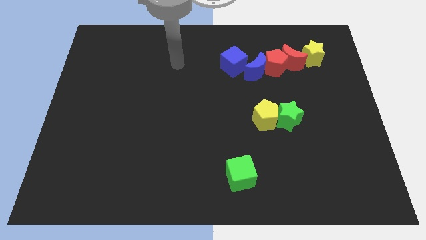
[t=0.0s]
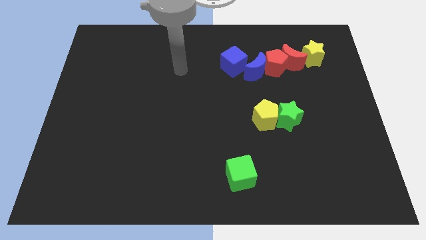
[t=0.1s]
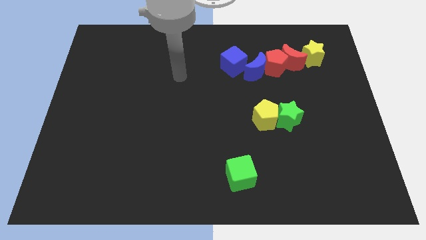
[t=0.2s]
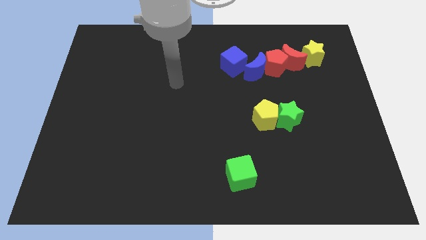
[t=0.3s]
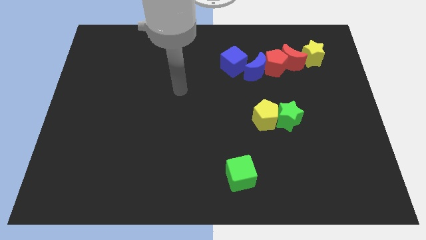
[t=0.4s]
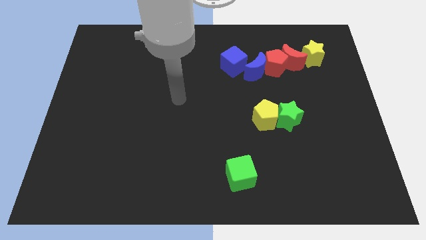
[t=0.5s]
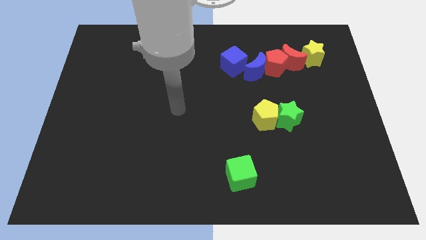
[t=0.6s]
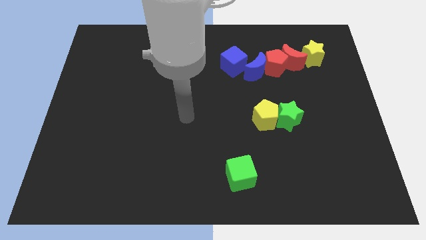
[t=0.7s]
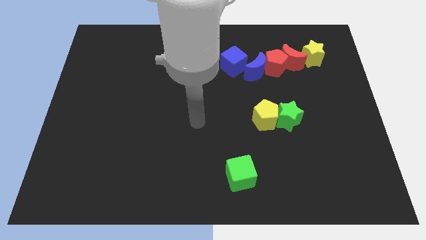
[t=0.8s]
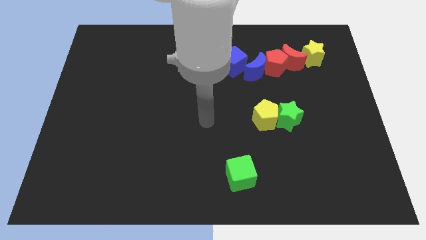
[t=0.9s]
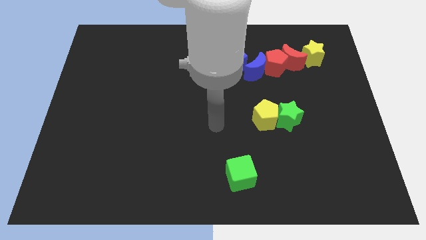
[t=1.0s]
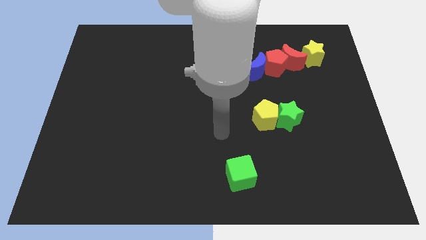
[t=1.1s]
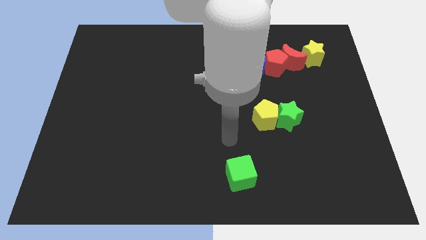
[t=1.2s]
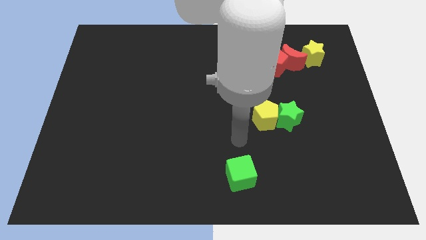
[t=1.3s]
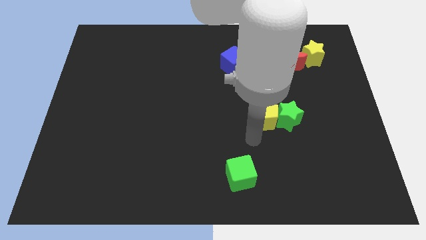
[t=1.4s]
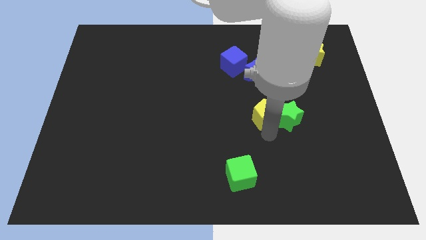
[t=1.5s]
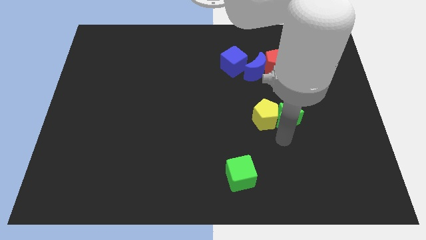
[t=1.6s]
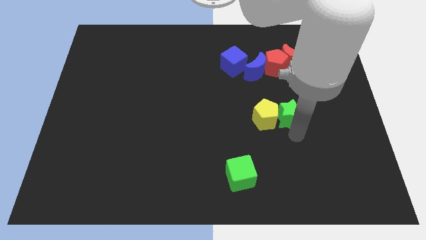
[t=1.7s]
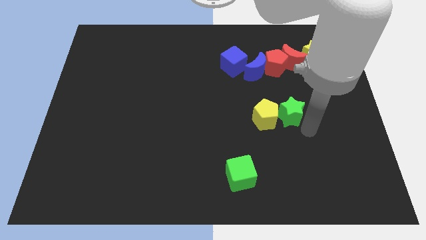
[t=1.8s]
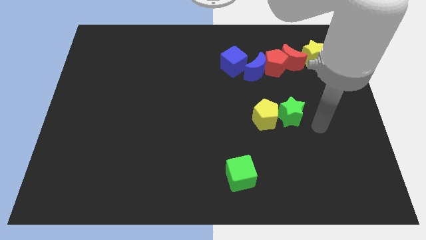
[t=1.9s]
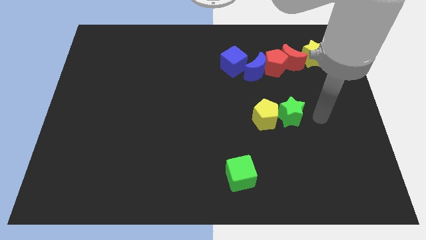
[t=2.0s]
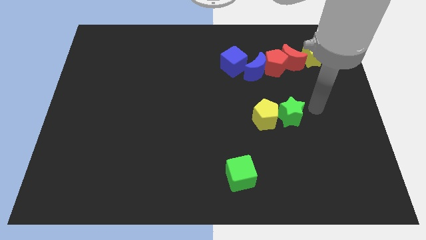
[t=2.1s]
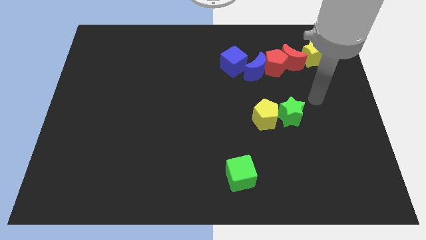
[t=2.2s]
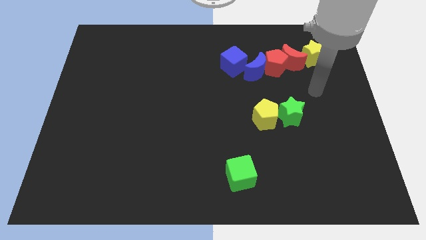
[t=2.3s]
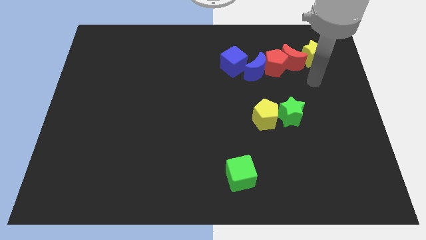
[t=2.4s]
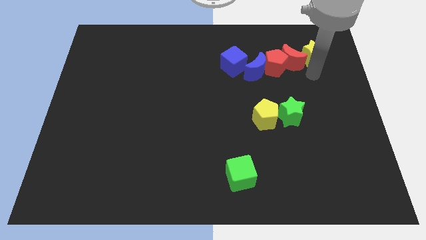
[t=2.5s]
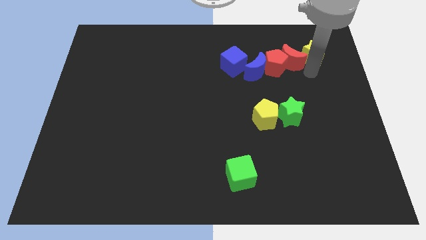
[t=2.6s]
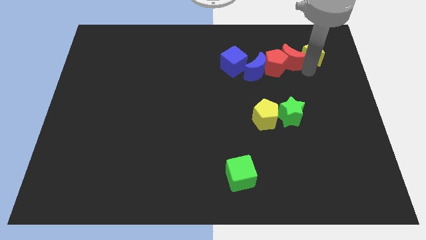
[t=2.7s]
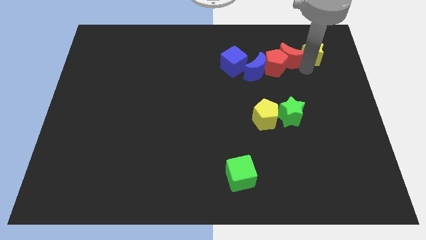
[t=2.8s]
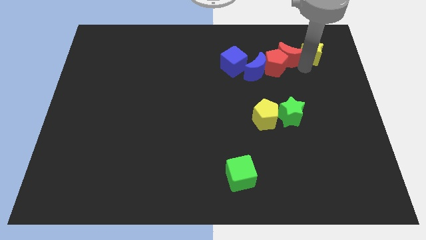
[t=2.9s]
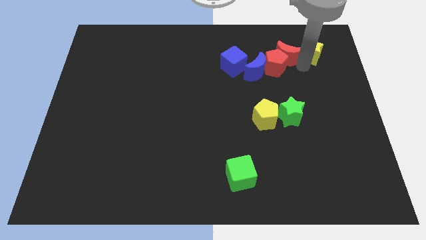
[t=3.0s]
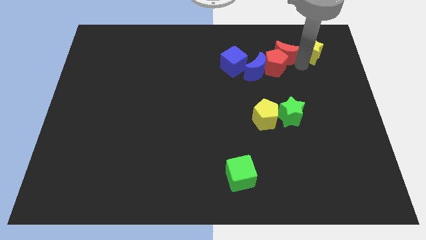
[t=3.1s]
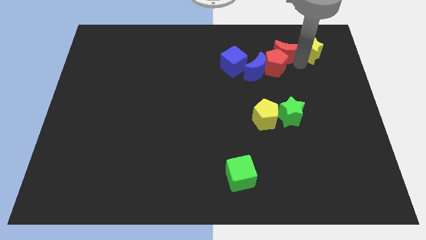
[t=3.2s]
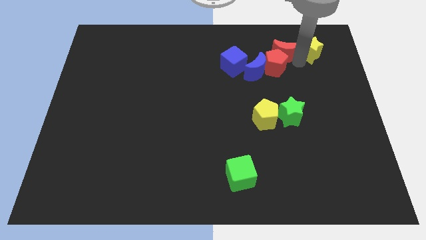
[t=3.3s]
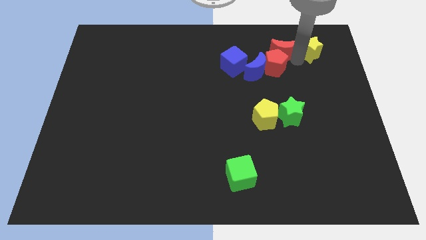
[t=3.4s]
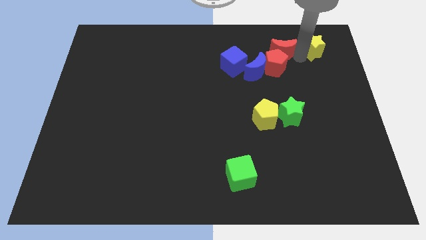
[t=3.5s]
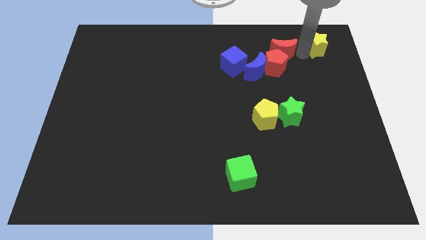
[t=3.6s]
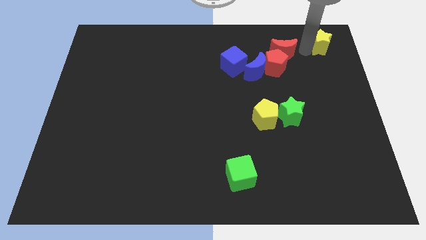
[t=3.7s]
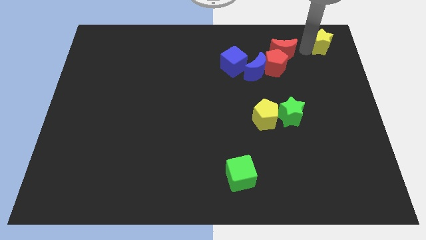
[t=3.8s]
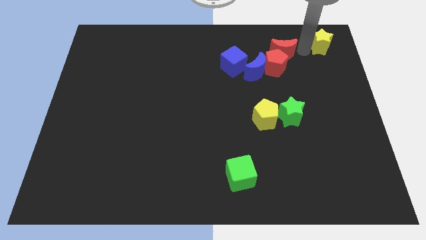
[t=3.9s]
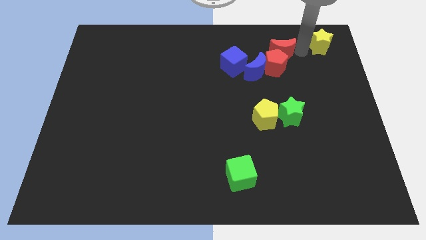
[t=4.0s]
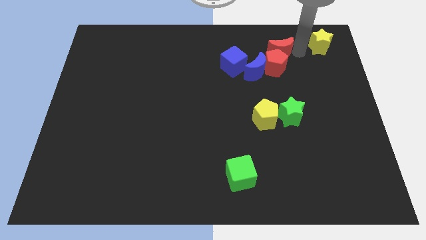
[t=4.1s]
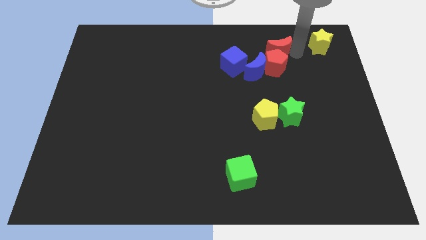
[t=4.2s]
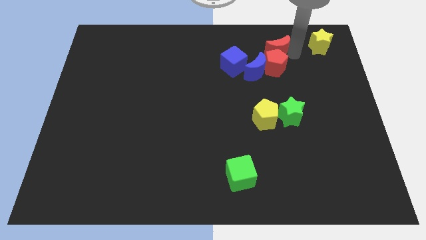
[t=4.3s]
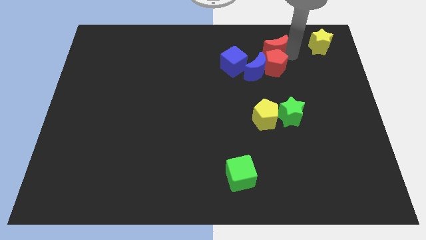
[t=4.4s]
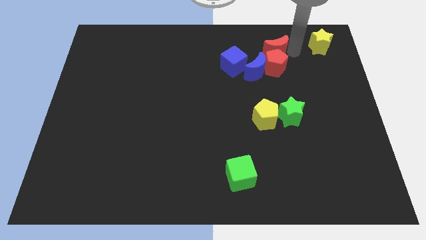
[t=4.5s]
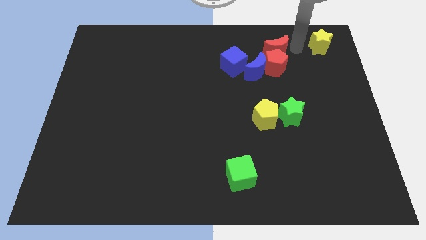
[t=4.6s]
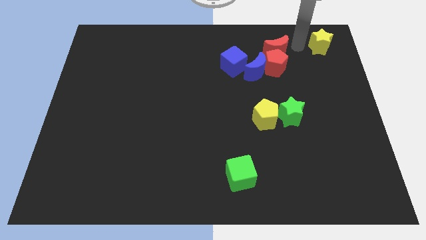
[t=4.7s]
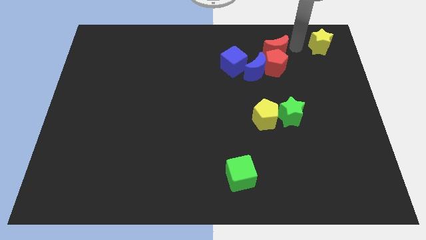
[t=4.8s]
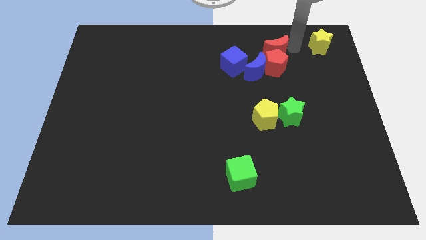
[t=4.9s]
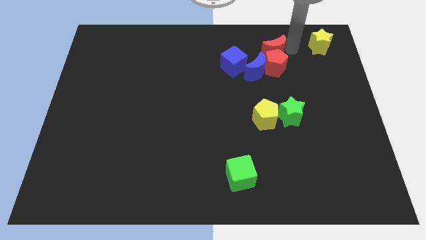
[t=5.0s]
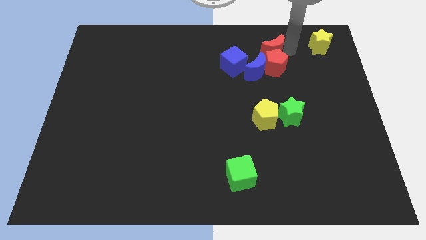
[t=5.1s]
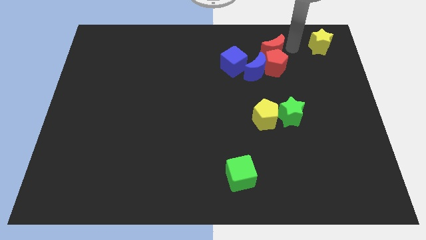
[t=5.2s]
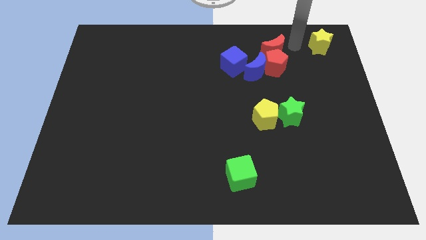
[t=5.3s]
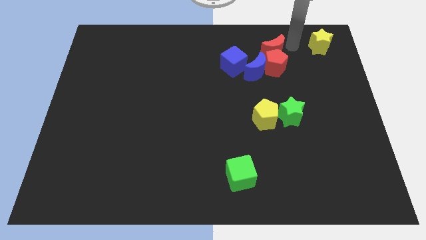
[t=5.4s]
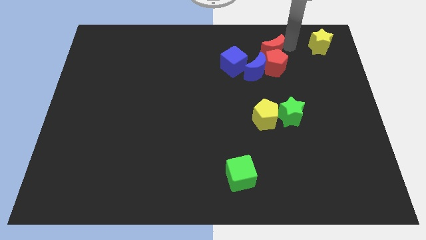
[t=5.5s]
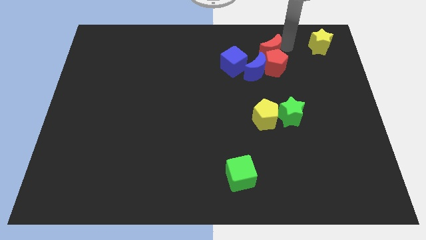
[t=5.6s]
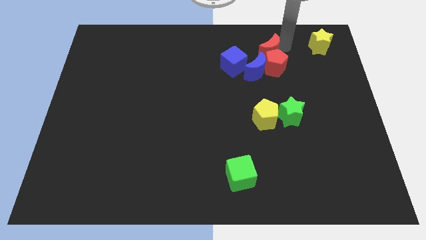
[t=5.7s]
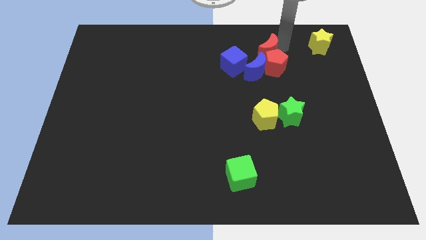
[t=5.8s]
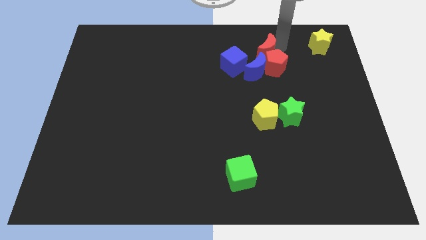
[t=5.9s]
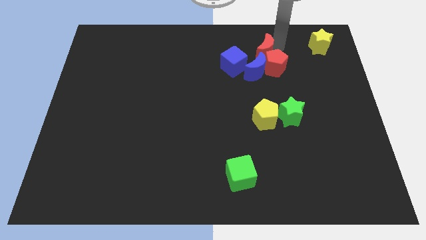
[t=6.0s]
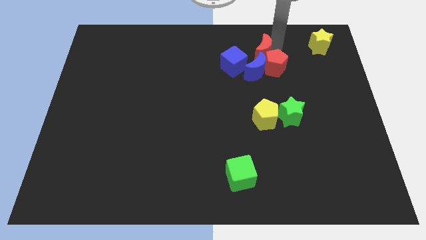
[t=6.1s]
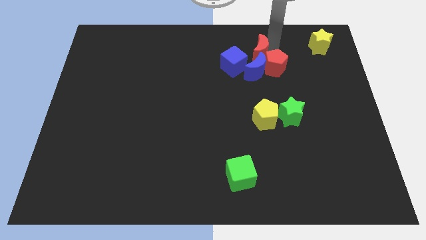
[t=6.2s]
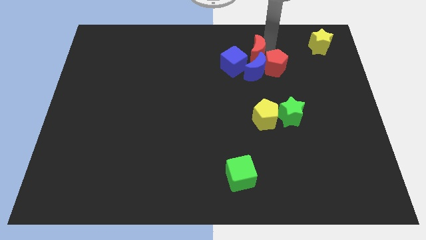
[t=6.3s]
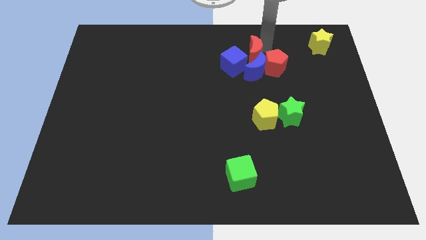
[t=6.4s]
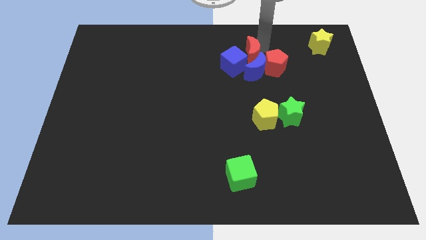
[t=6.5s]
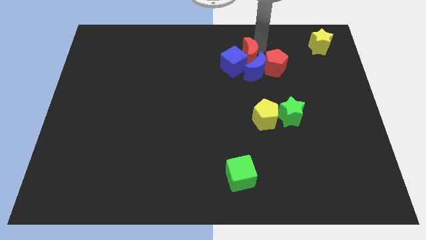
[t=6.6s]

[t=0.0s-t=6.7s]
slide the red moon towards the blue cube

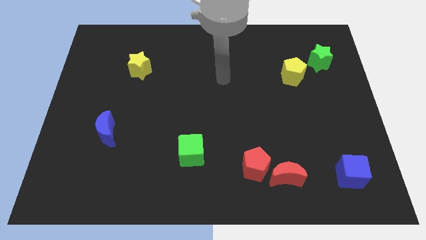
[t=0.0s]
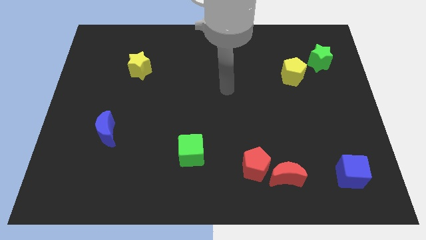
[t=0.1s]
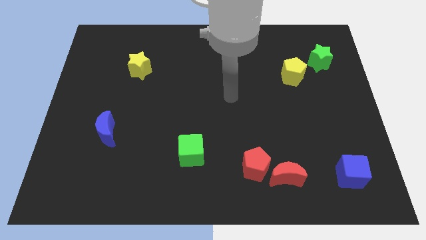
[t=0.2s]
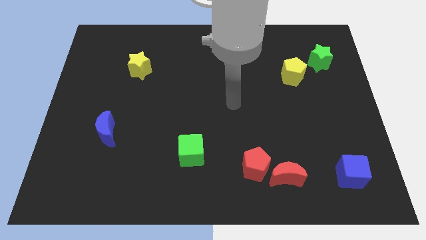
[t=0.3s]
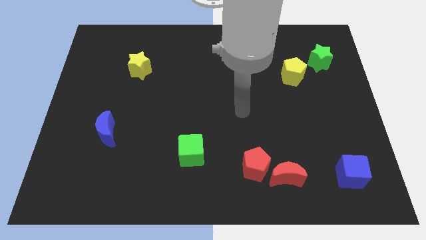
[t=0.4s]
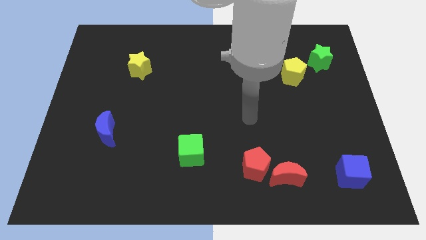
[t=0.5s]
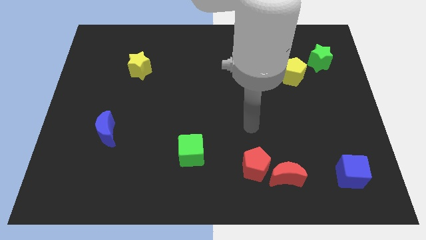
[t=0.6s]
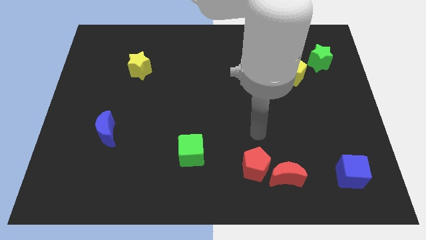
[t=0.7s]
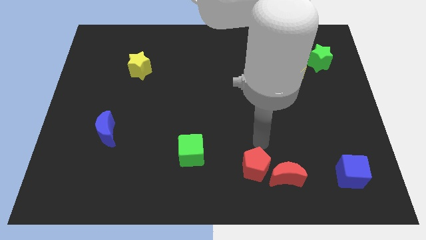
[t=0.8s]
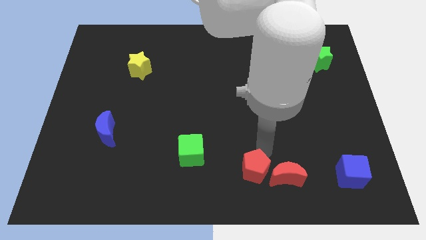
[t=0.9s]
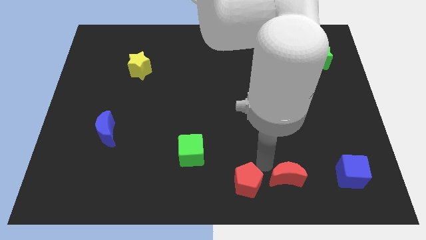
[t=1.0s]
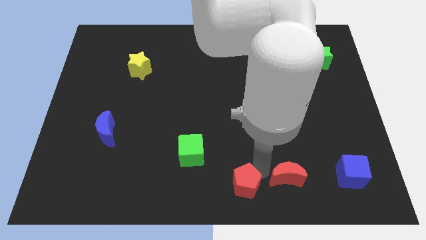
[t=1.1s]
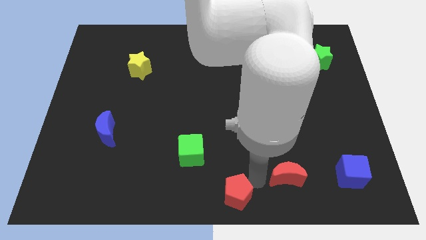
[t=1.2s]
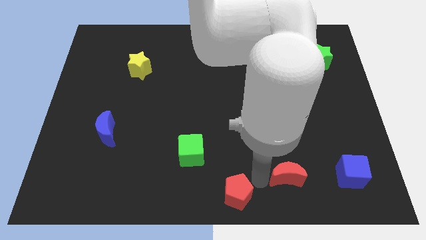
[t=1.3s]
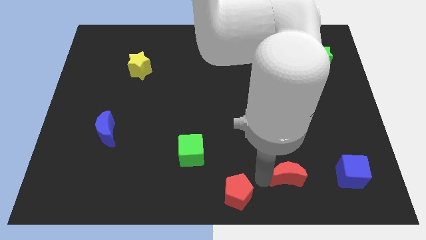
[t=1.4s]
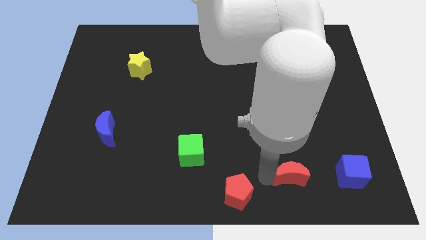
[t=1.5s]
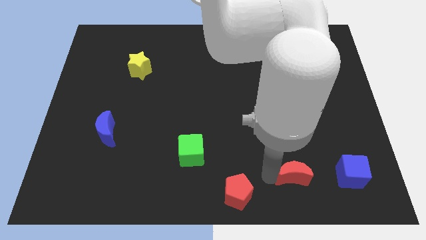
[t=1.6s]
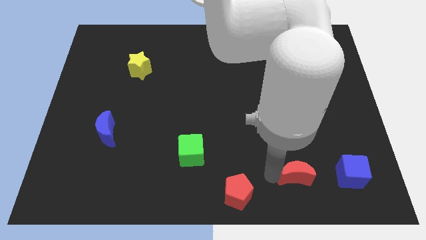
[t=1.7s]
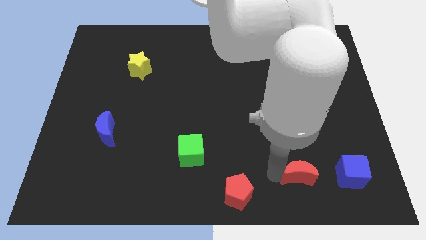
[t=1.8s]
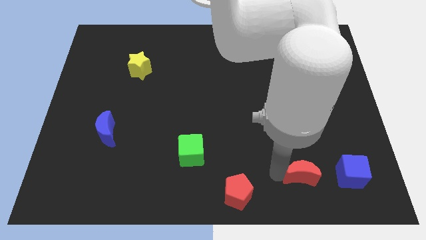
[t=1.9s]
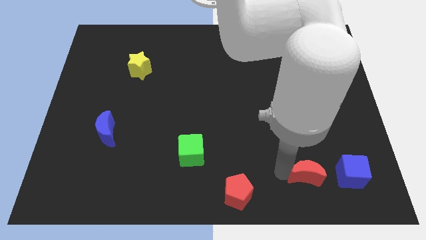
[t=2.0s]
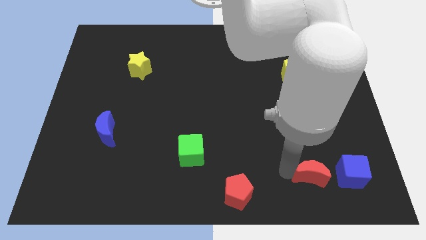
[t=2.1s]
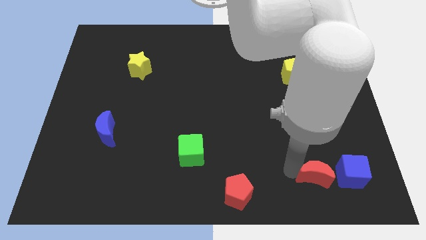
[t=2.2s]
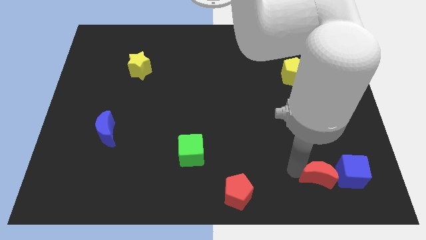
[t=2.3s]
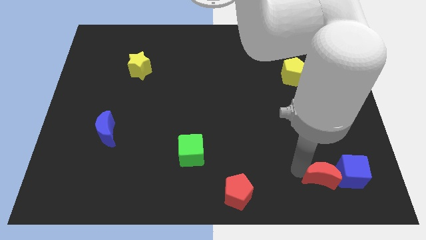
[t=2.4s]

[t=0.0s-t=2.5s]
move the red moon to the blue cube
